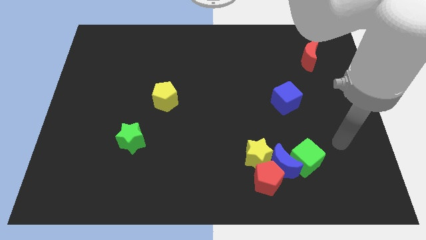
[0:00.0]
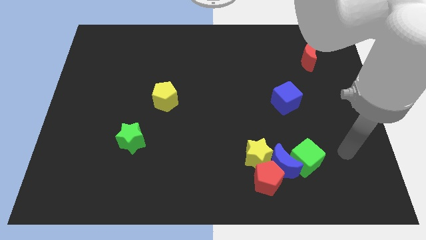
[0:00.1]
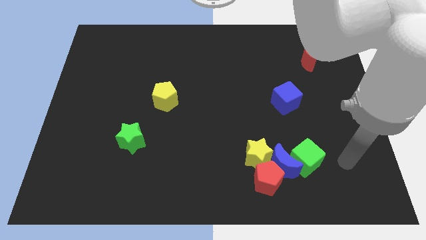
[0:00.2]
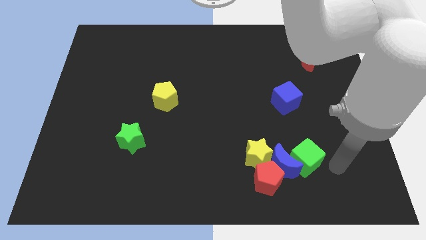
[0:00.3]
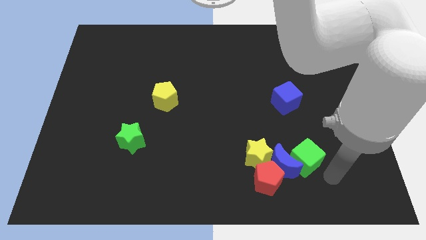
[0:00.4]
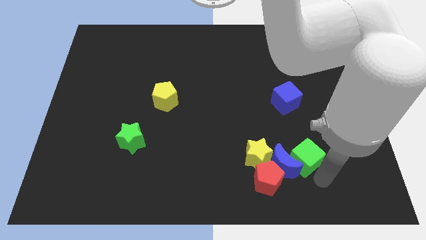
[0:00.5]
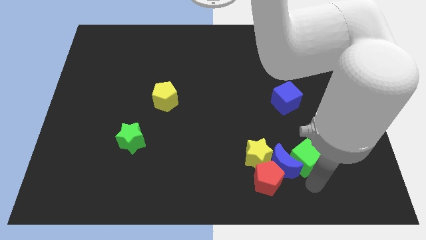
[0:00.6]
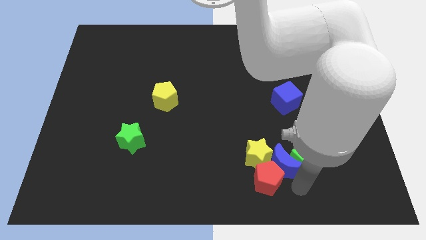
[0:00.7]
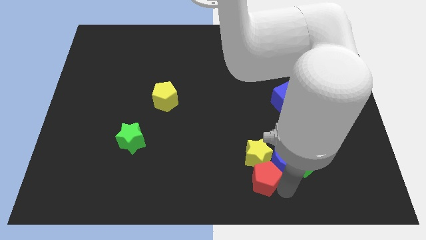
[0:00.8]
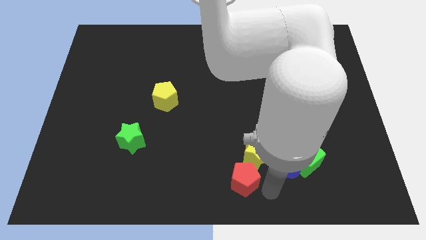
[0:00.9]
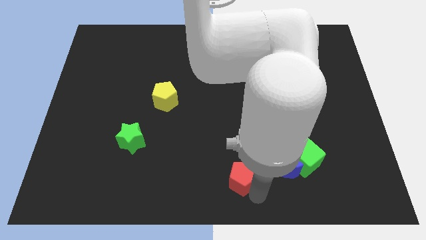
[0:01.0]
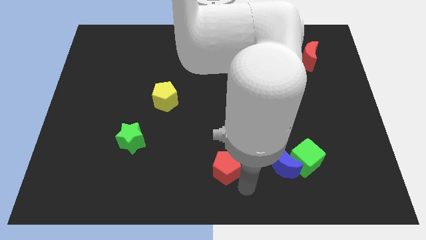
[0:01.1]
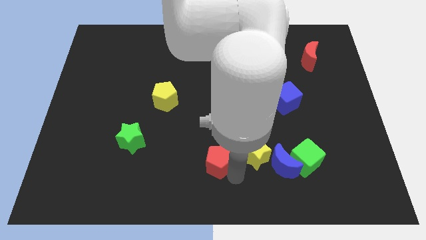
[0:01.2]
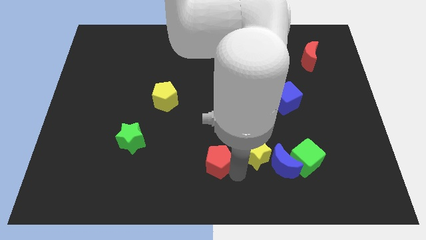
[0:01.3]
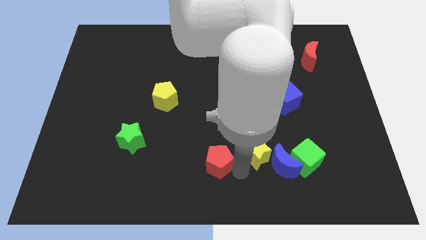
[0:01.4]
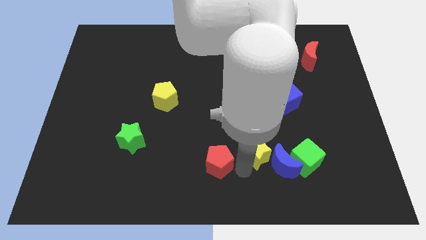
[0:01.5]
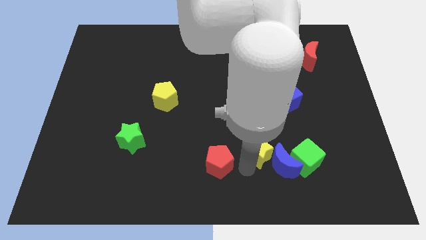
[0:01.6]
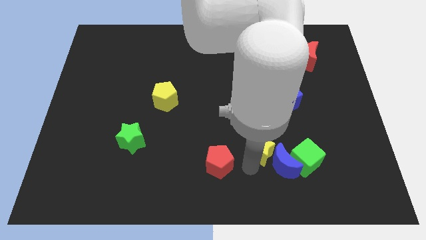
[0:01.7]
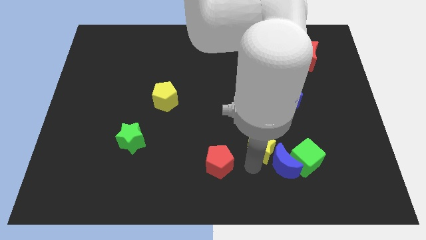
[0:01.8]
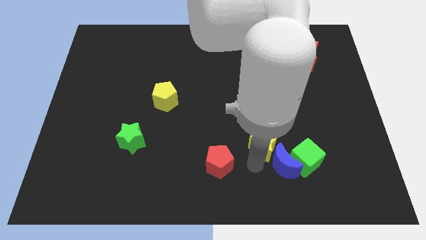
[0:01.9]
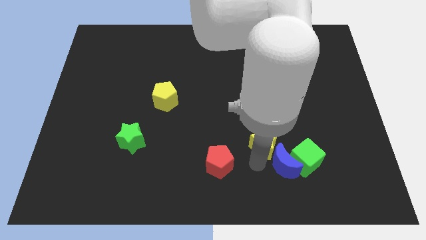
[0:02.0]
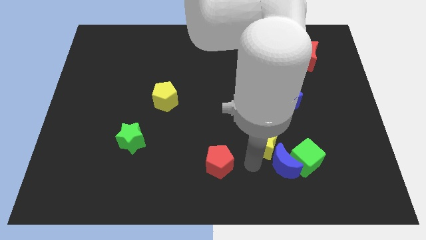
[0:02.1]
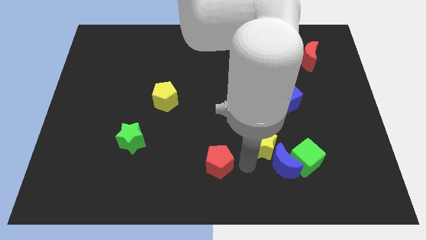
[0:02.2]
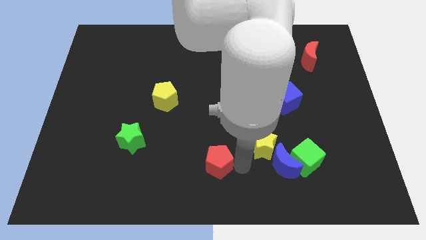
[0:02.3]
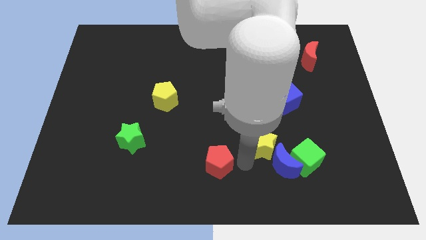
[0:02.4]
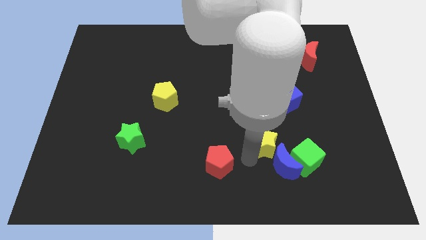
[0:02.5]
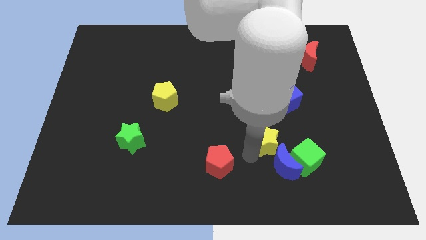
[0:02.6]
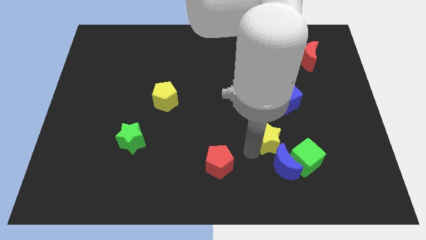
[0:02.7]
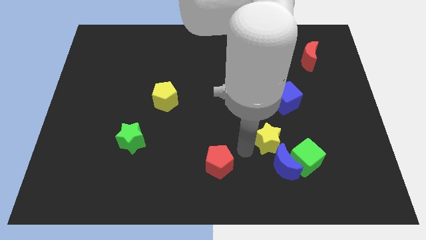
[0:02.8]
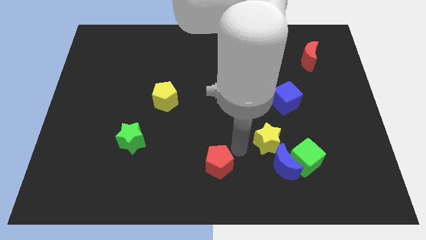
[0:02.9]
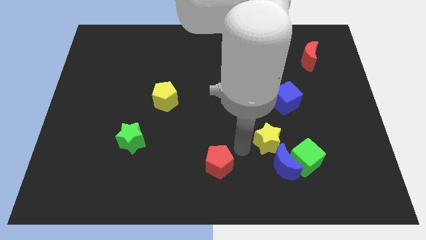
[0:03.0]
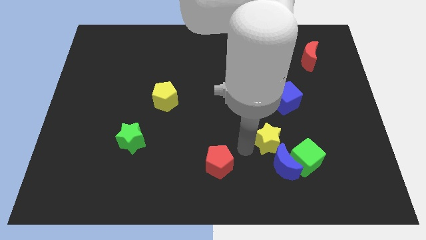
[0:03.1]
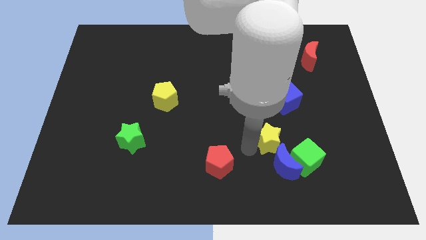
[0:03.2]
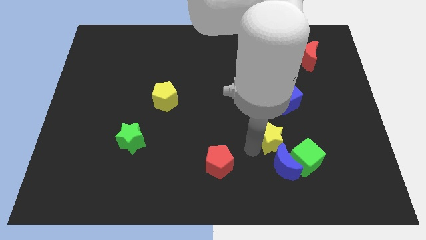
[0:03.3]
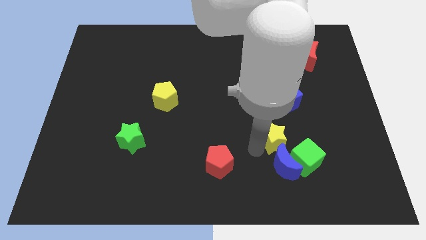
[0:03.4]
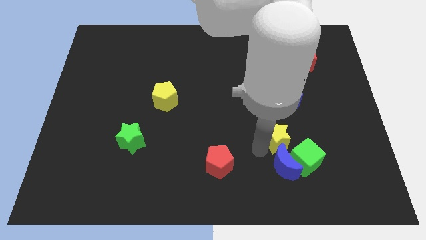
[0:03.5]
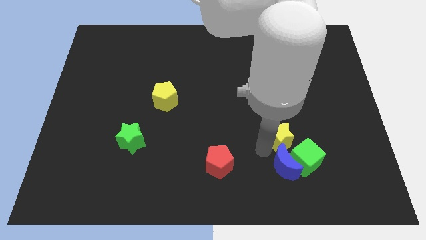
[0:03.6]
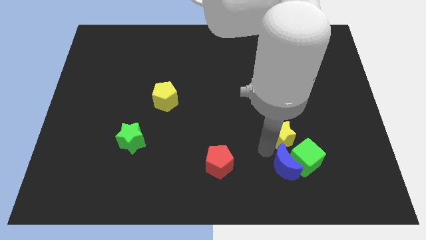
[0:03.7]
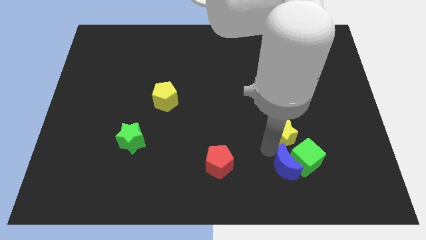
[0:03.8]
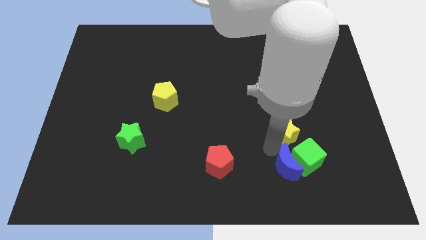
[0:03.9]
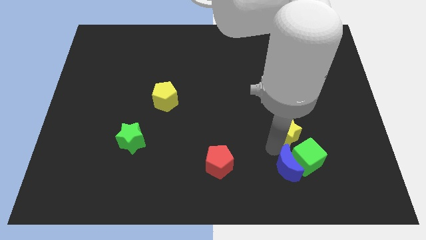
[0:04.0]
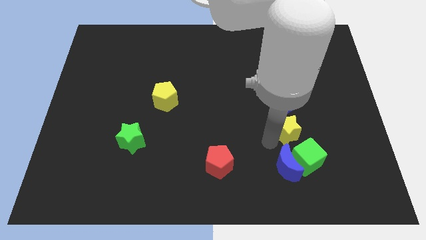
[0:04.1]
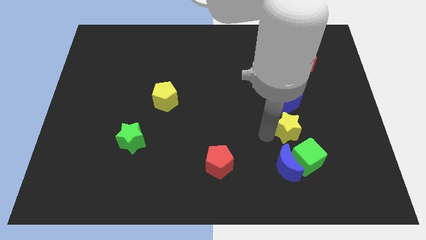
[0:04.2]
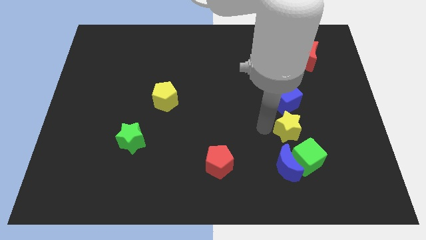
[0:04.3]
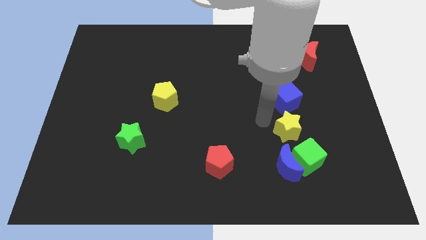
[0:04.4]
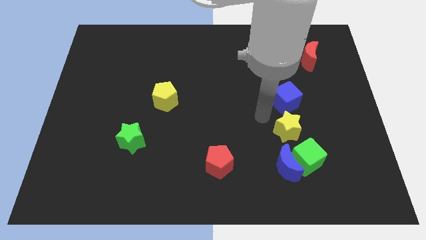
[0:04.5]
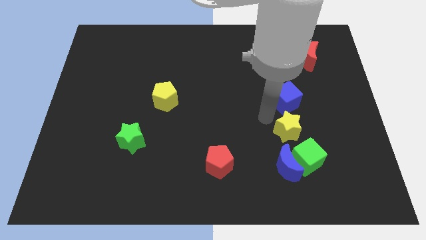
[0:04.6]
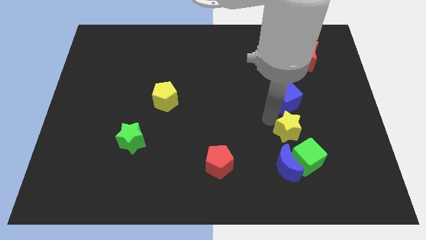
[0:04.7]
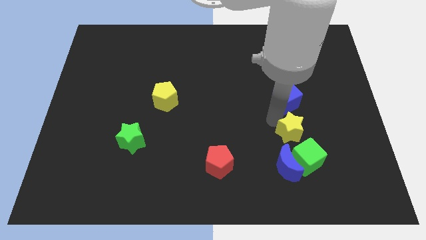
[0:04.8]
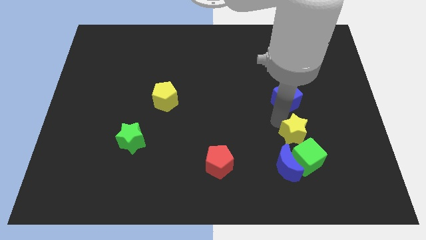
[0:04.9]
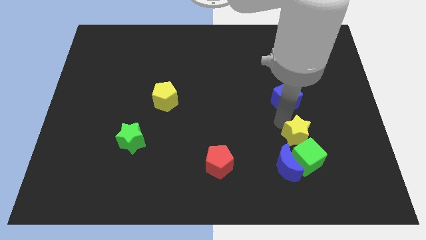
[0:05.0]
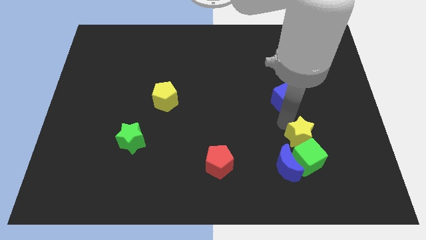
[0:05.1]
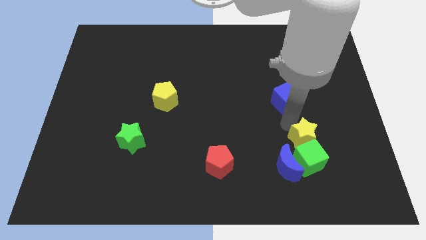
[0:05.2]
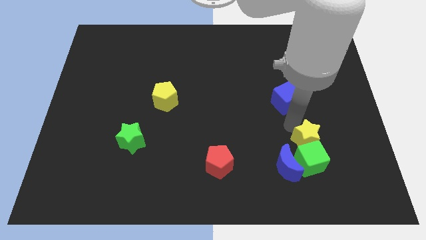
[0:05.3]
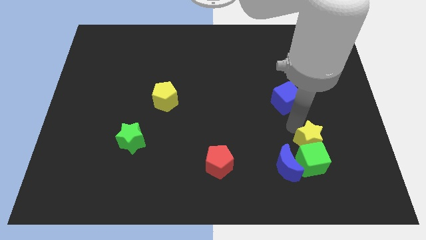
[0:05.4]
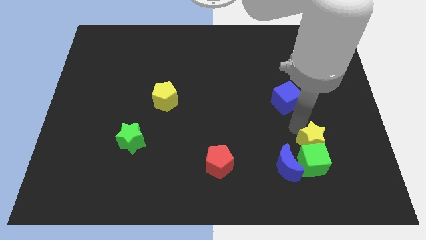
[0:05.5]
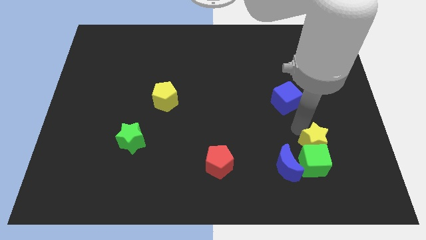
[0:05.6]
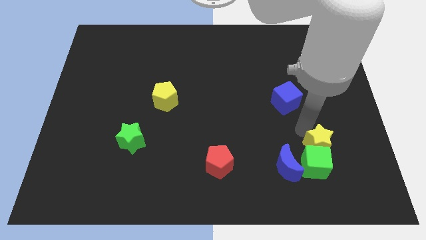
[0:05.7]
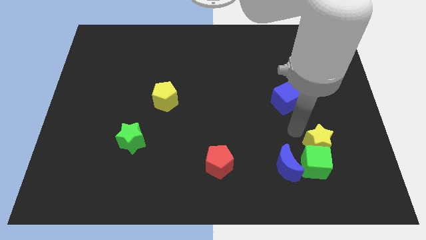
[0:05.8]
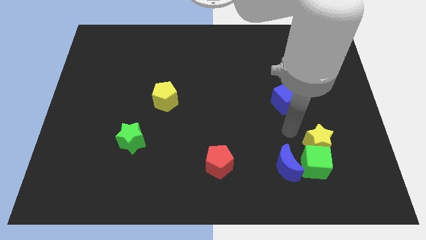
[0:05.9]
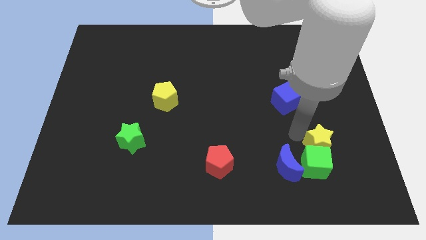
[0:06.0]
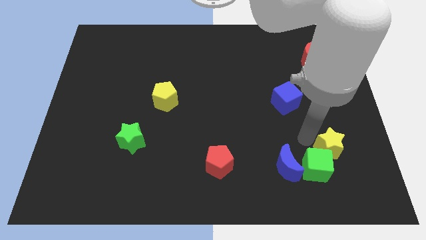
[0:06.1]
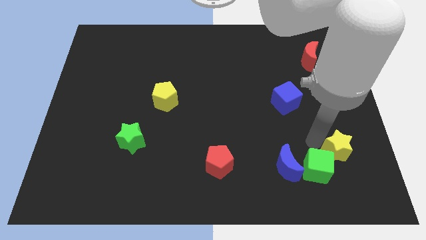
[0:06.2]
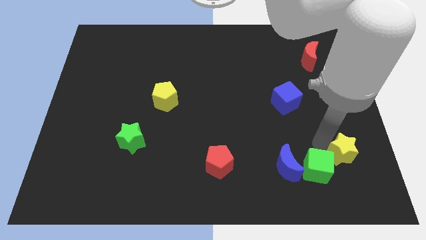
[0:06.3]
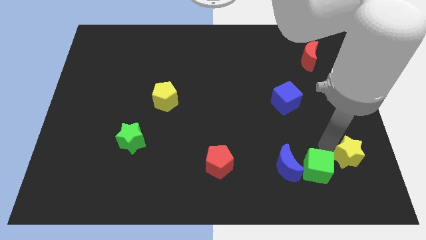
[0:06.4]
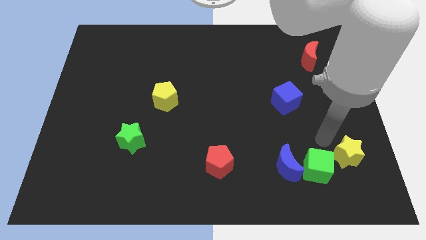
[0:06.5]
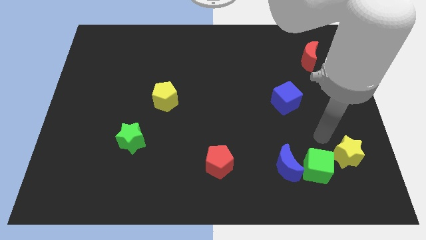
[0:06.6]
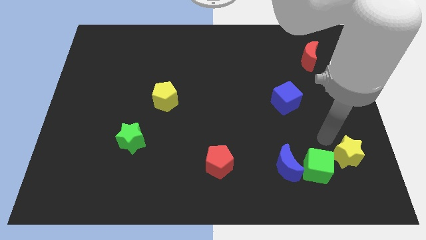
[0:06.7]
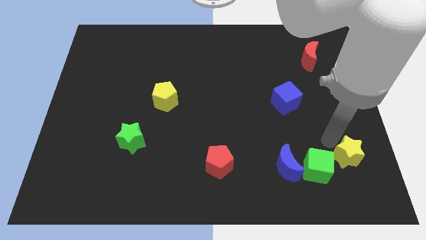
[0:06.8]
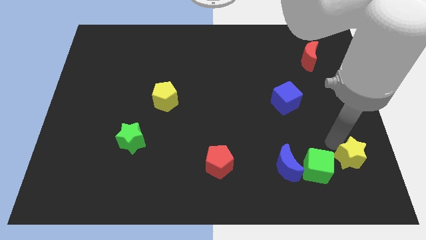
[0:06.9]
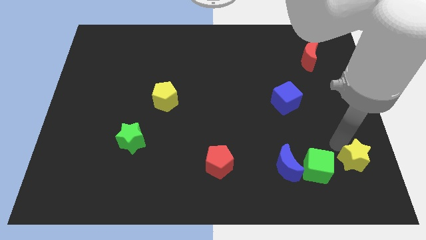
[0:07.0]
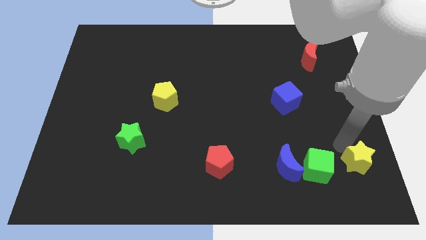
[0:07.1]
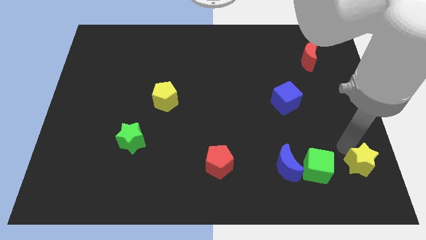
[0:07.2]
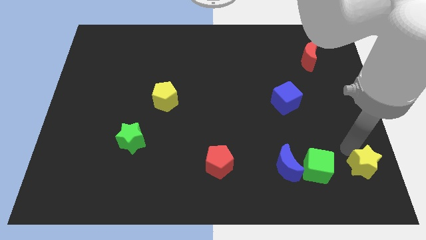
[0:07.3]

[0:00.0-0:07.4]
slide the yellow star to the bottom right corner
